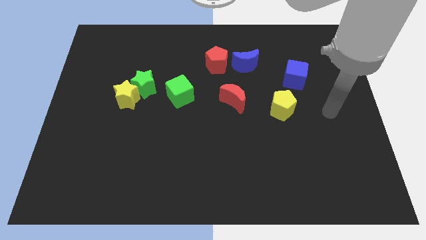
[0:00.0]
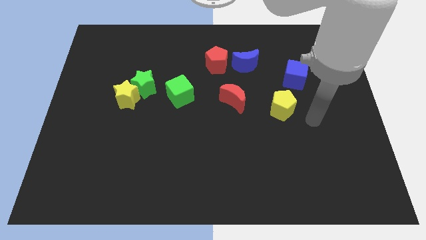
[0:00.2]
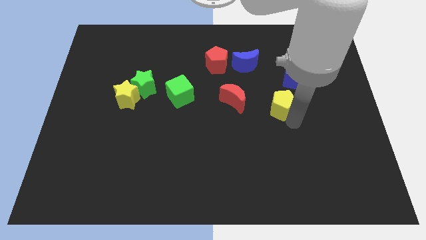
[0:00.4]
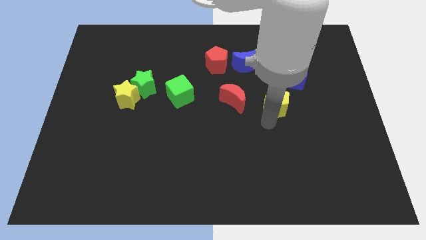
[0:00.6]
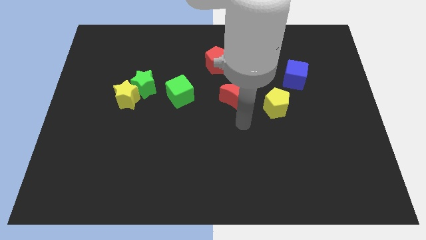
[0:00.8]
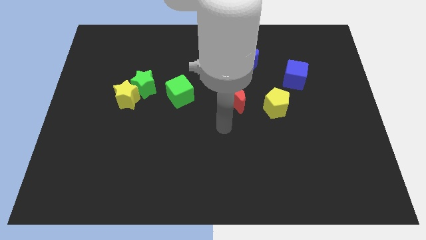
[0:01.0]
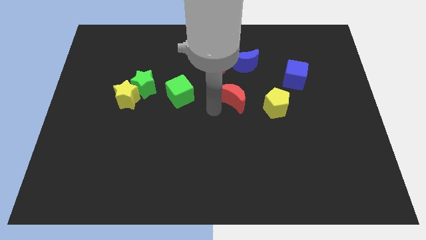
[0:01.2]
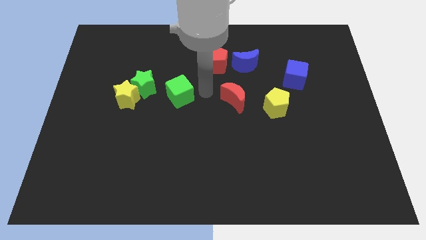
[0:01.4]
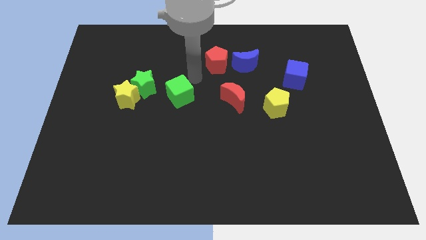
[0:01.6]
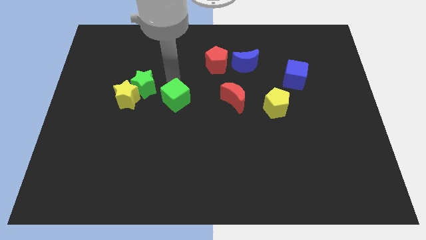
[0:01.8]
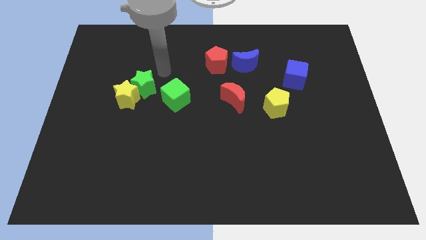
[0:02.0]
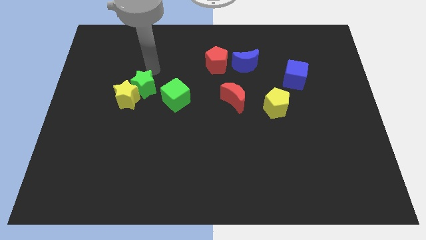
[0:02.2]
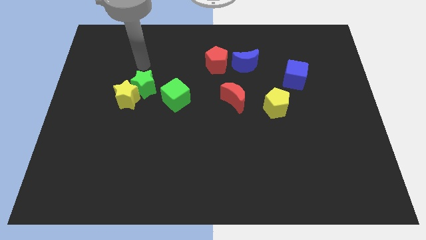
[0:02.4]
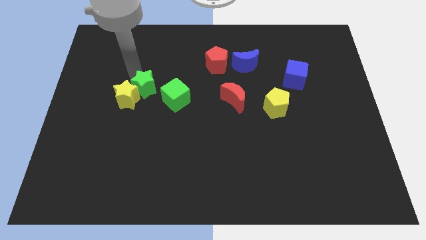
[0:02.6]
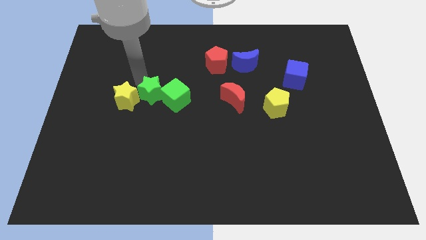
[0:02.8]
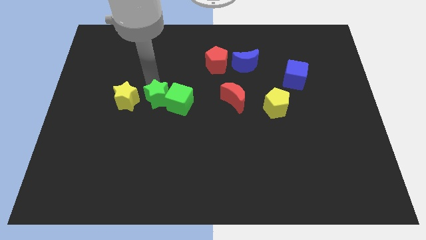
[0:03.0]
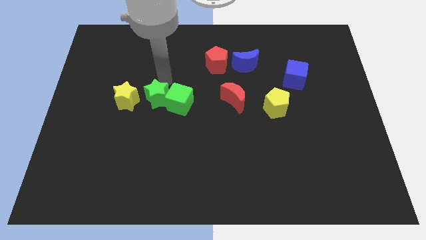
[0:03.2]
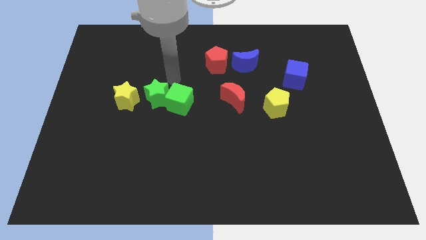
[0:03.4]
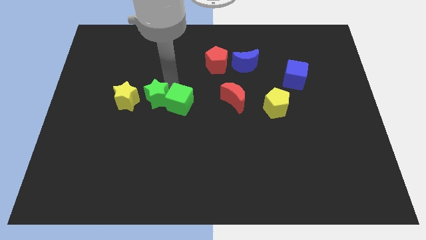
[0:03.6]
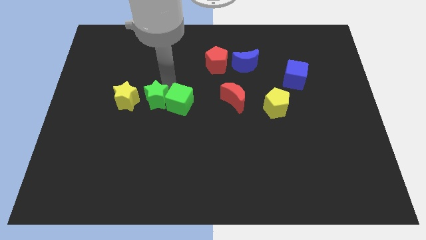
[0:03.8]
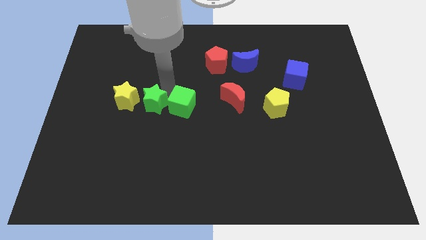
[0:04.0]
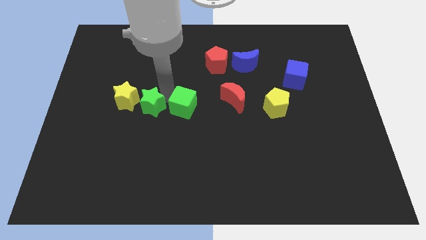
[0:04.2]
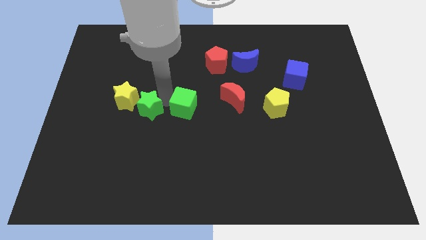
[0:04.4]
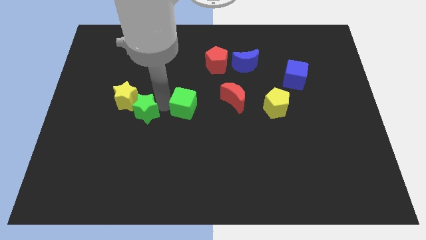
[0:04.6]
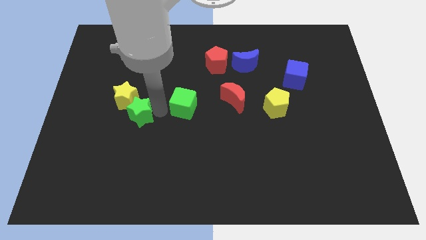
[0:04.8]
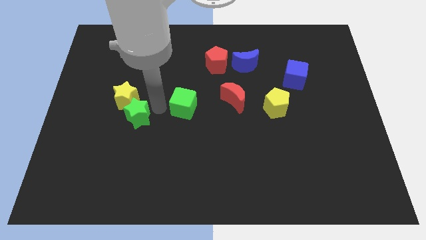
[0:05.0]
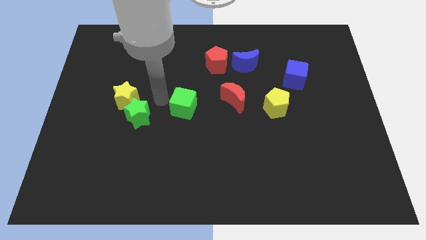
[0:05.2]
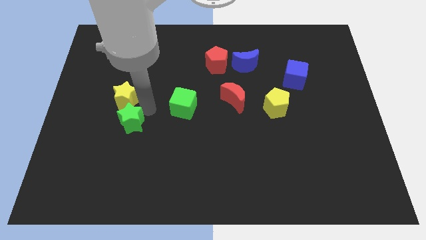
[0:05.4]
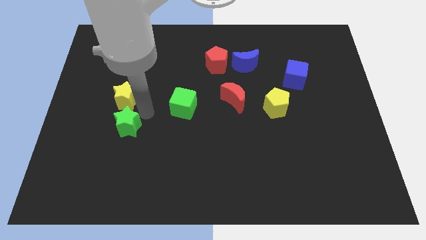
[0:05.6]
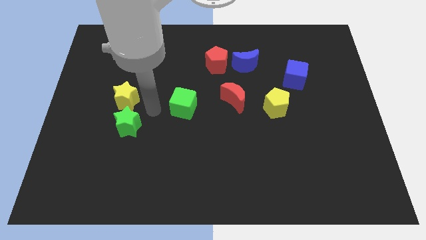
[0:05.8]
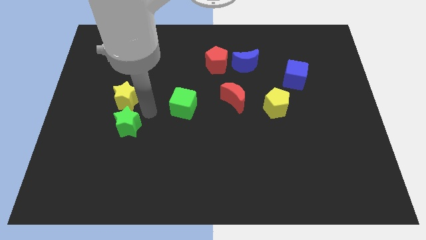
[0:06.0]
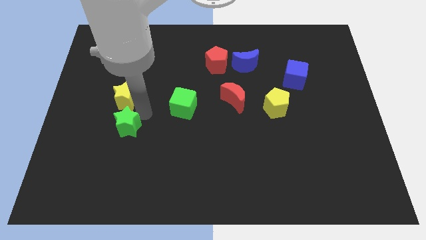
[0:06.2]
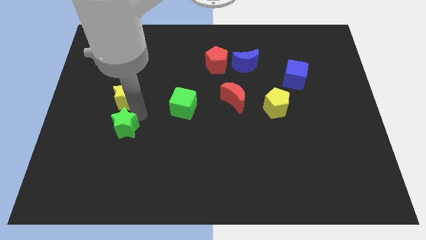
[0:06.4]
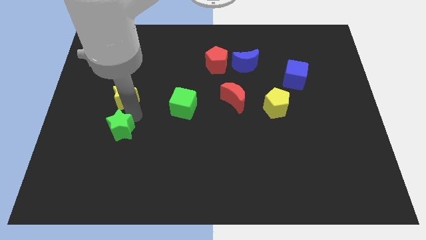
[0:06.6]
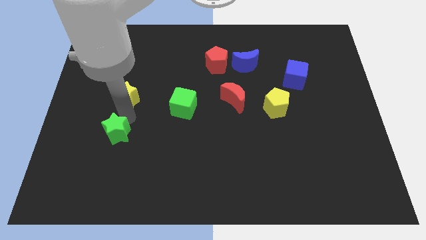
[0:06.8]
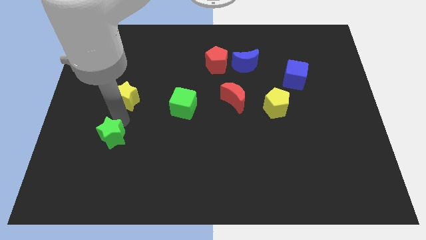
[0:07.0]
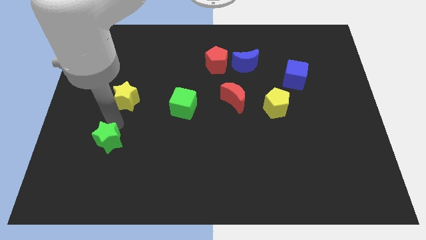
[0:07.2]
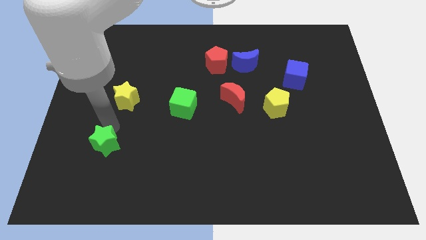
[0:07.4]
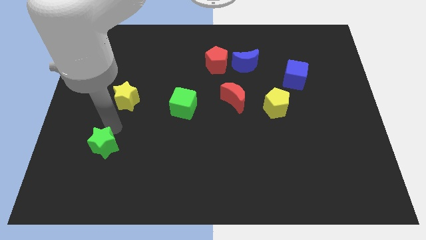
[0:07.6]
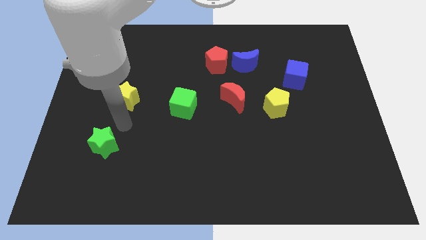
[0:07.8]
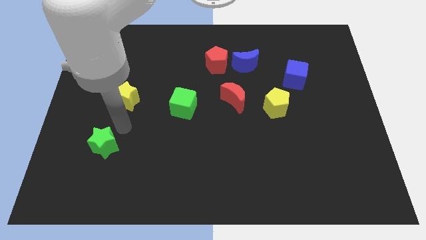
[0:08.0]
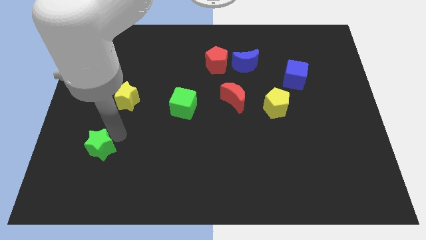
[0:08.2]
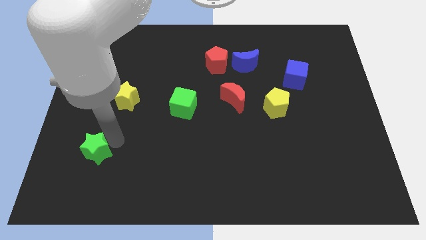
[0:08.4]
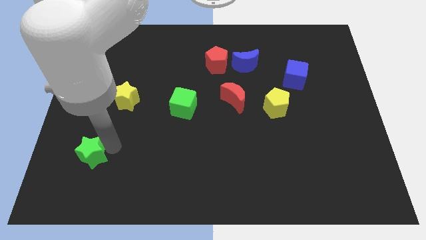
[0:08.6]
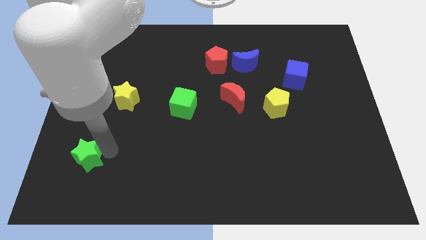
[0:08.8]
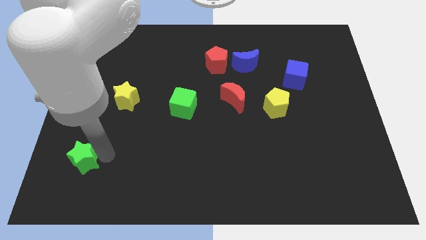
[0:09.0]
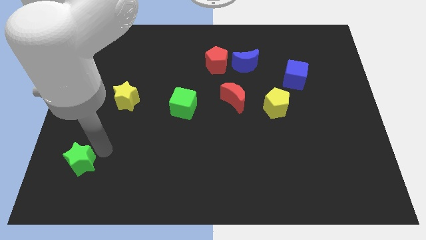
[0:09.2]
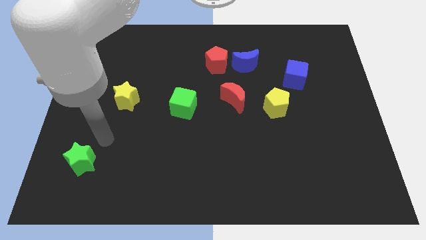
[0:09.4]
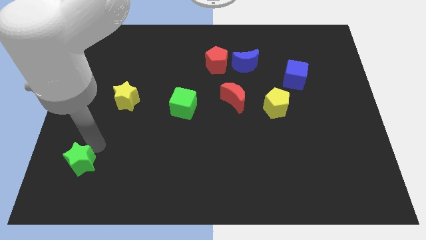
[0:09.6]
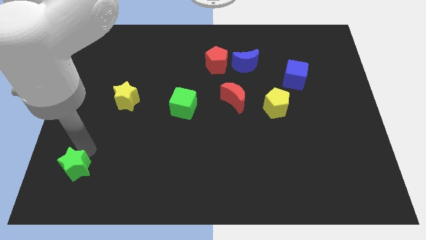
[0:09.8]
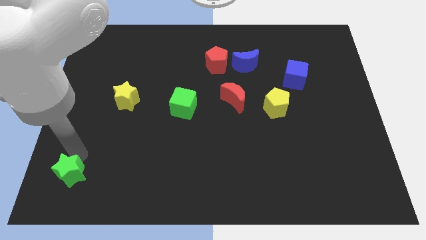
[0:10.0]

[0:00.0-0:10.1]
slide the green star to the bottom left corner

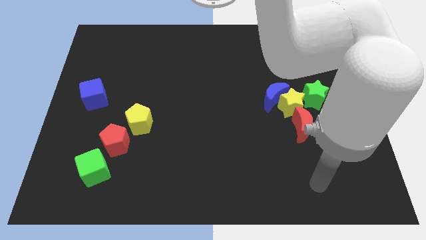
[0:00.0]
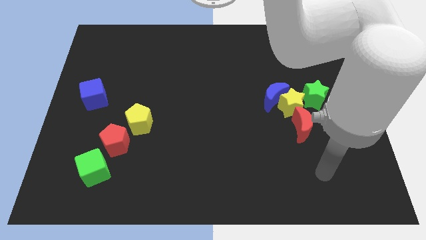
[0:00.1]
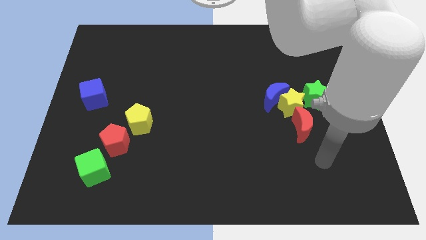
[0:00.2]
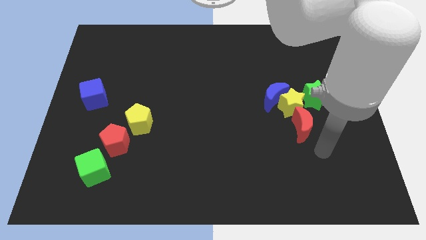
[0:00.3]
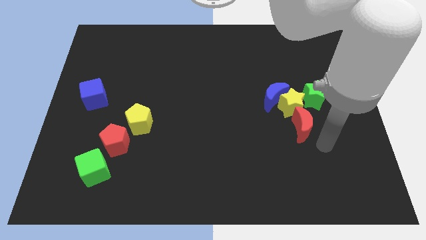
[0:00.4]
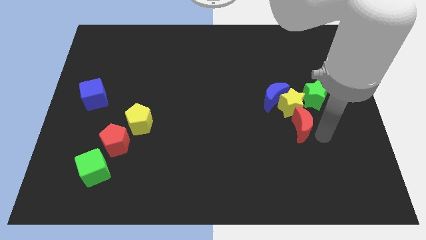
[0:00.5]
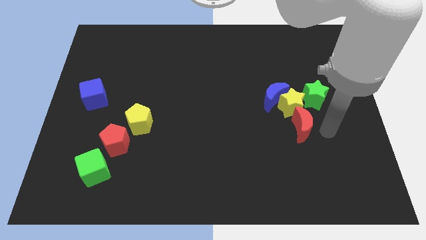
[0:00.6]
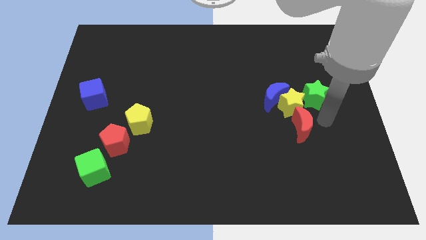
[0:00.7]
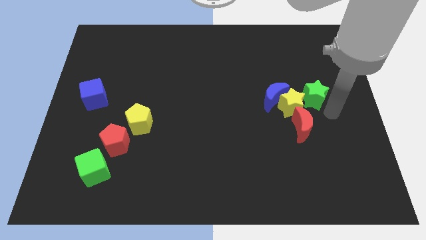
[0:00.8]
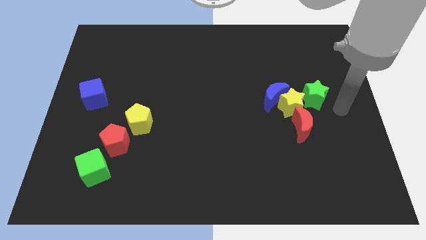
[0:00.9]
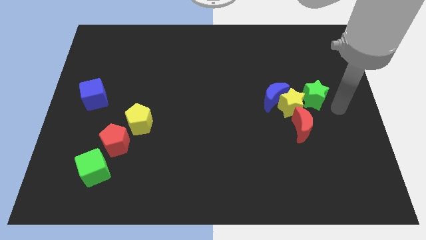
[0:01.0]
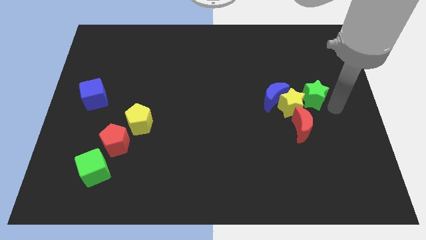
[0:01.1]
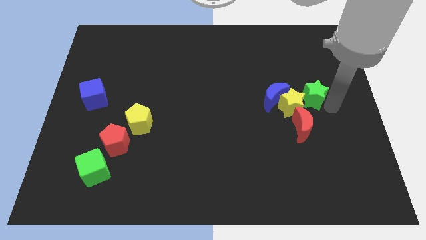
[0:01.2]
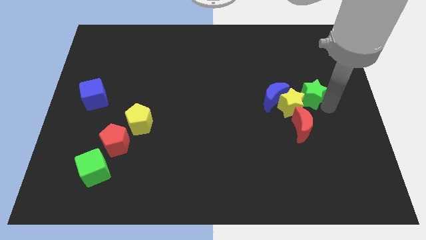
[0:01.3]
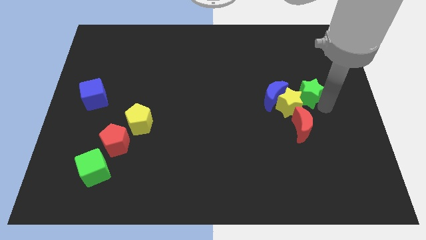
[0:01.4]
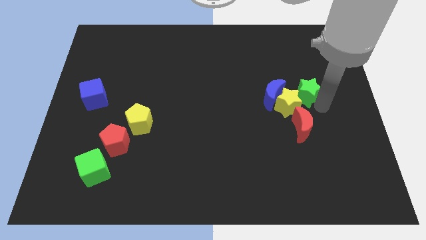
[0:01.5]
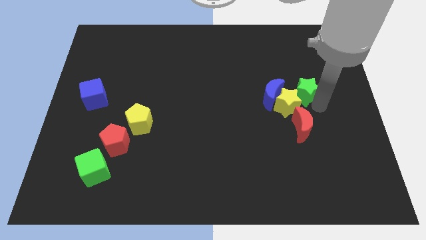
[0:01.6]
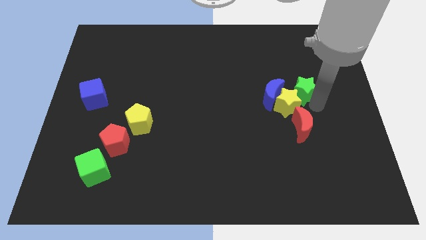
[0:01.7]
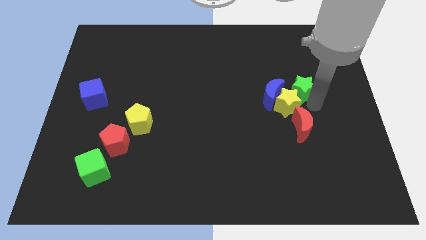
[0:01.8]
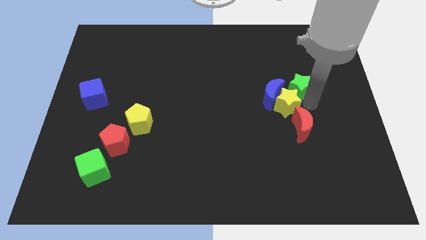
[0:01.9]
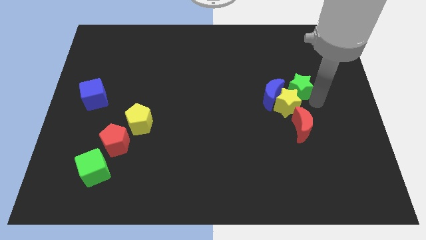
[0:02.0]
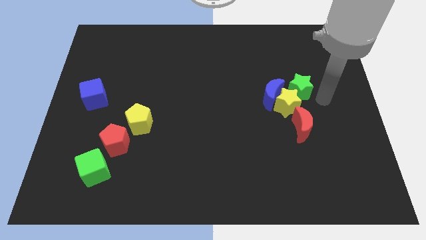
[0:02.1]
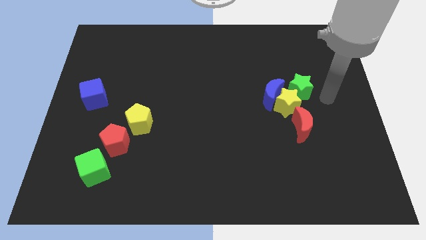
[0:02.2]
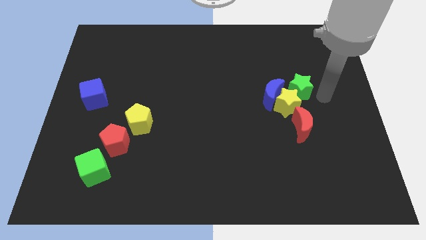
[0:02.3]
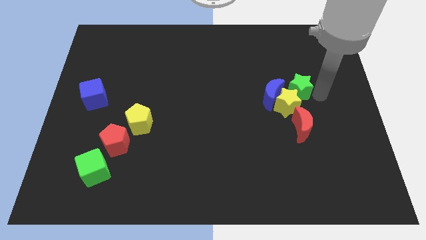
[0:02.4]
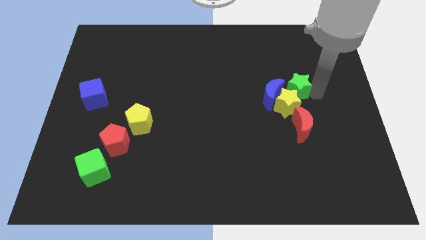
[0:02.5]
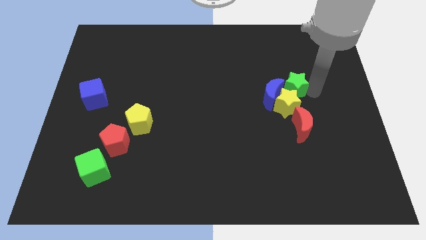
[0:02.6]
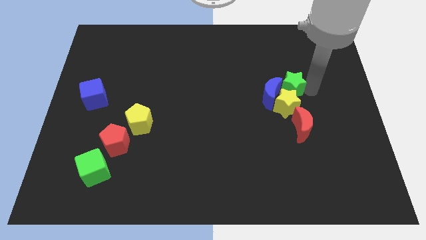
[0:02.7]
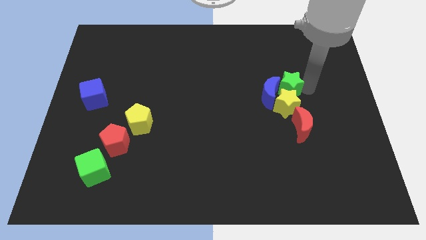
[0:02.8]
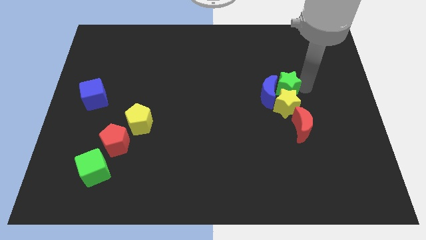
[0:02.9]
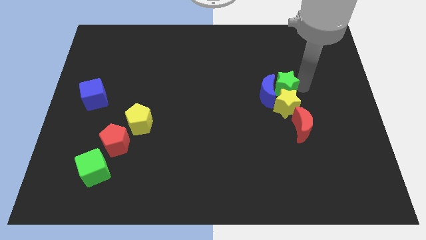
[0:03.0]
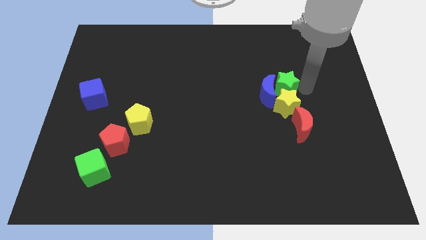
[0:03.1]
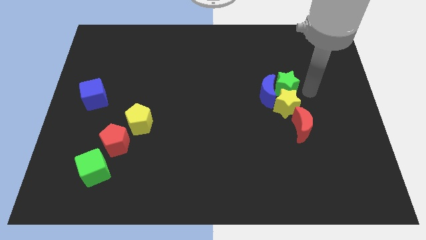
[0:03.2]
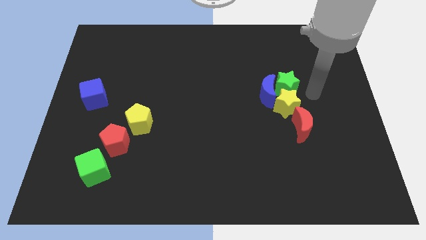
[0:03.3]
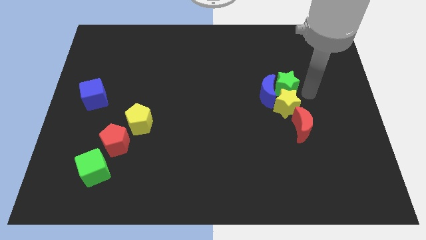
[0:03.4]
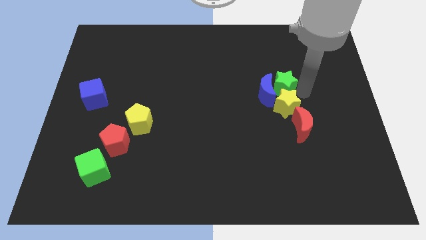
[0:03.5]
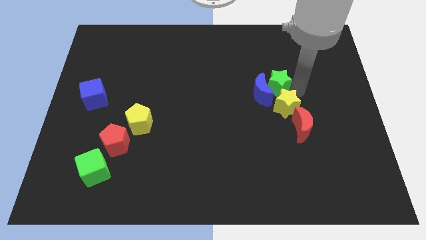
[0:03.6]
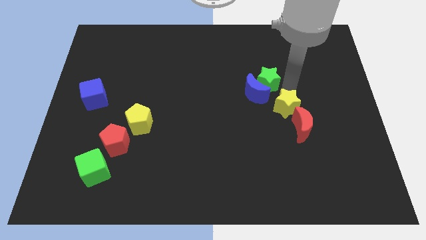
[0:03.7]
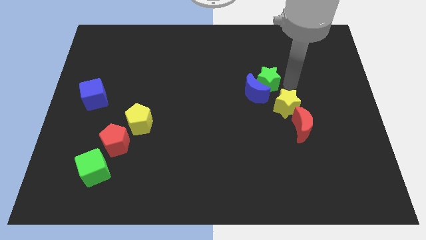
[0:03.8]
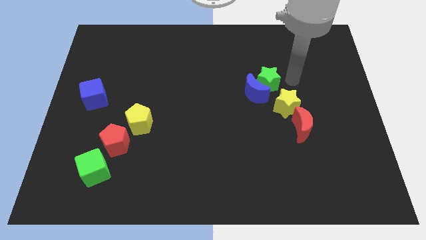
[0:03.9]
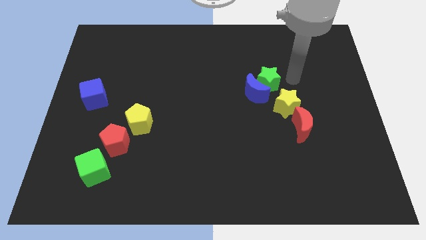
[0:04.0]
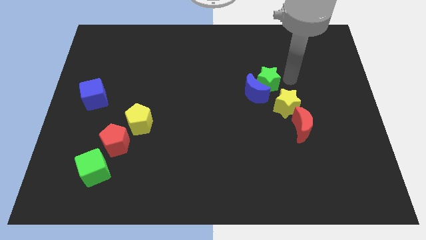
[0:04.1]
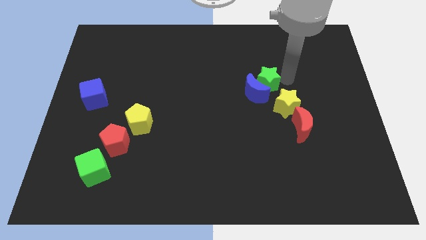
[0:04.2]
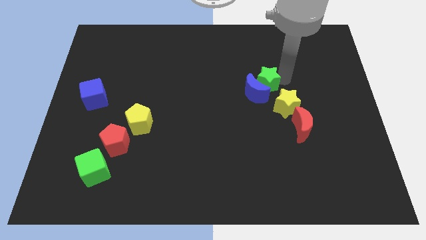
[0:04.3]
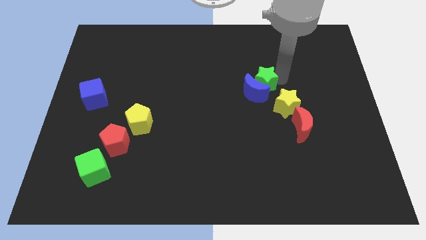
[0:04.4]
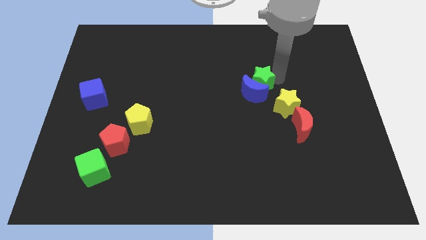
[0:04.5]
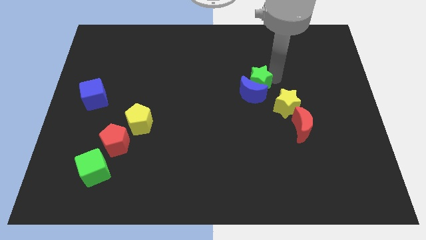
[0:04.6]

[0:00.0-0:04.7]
slide the green star to the middle
